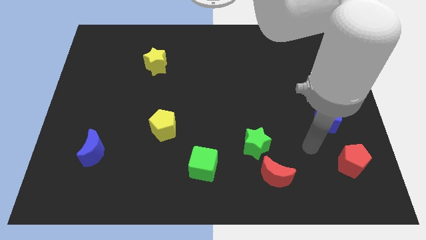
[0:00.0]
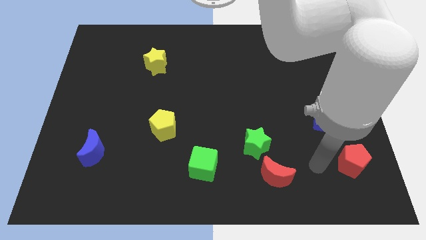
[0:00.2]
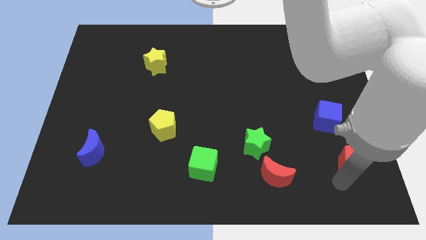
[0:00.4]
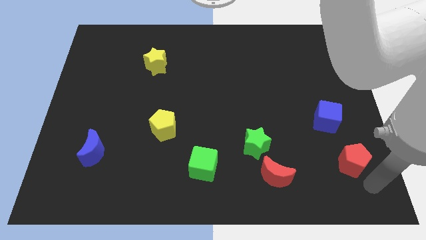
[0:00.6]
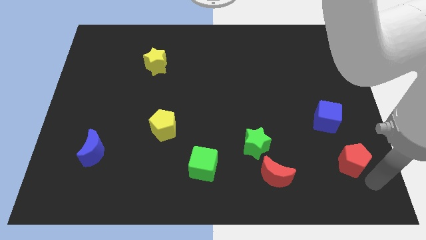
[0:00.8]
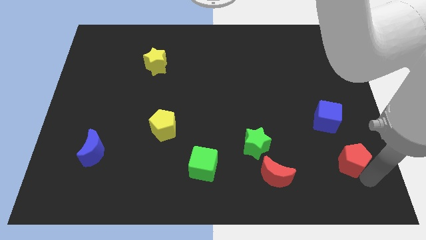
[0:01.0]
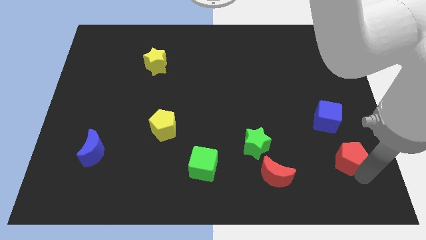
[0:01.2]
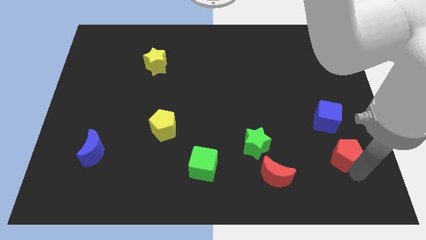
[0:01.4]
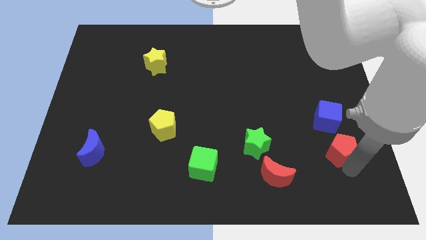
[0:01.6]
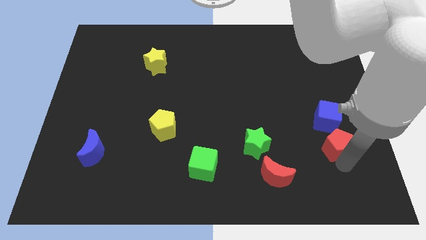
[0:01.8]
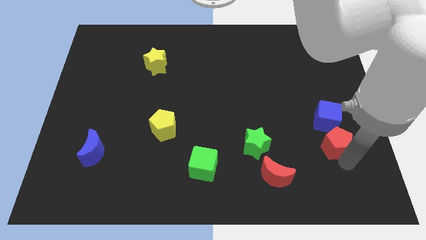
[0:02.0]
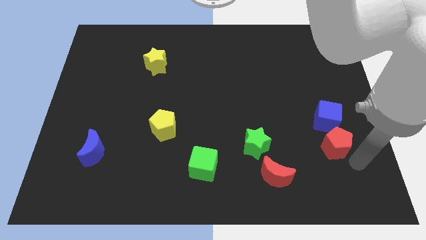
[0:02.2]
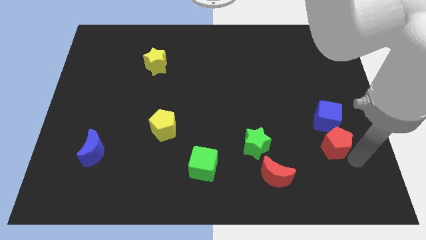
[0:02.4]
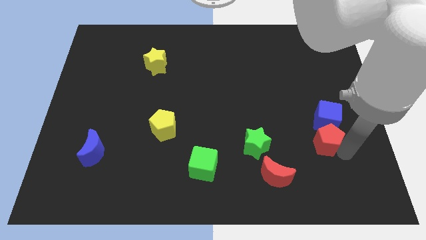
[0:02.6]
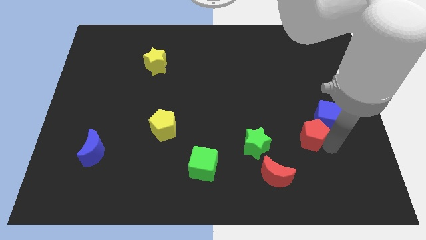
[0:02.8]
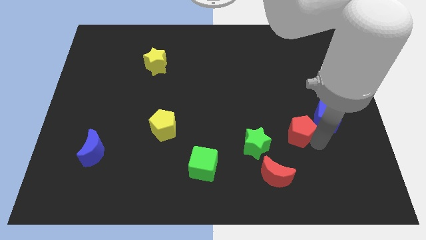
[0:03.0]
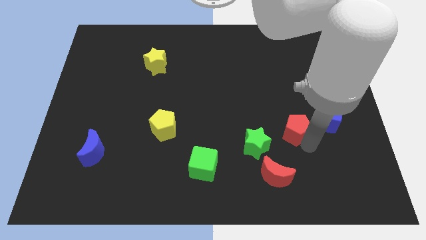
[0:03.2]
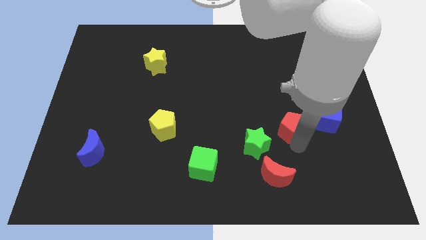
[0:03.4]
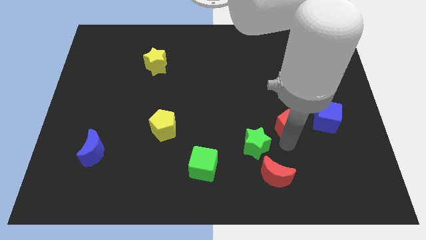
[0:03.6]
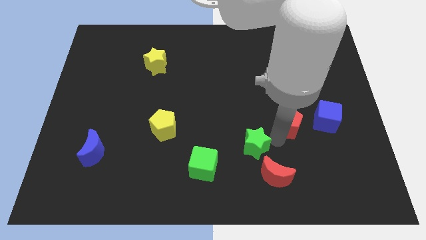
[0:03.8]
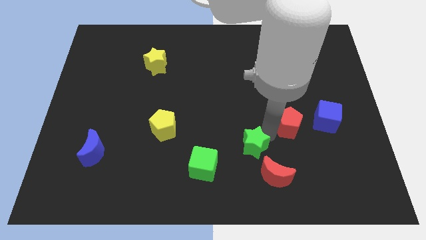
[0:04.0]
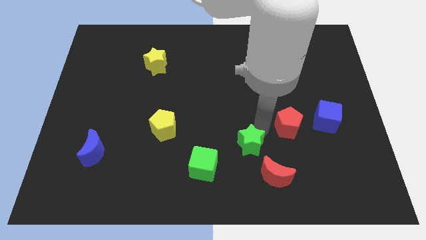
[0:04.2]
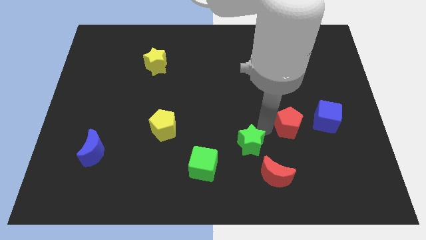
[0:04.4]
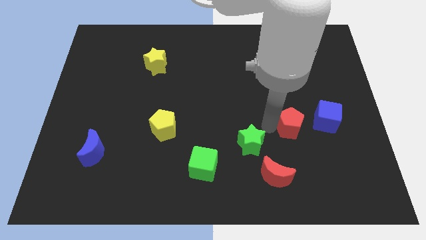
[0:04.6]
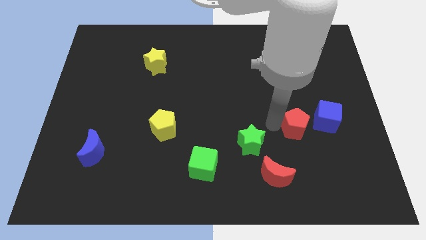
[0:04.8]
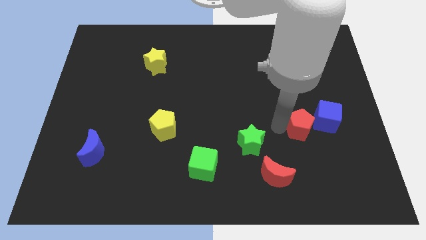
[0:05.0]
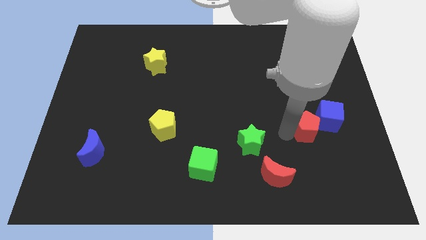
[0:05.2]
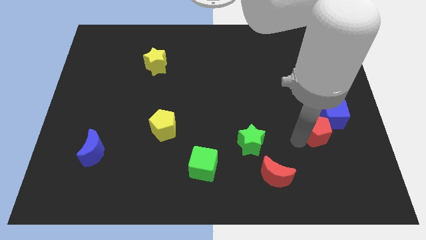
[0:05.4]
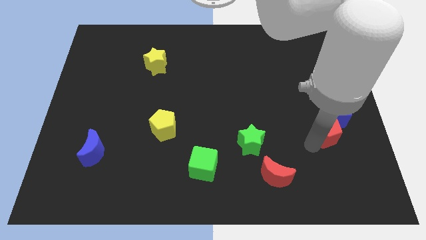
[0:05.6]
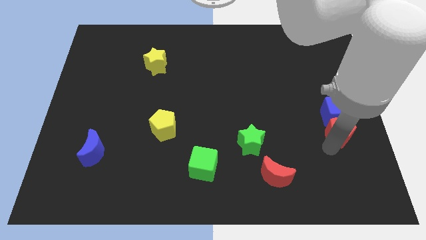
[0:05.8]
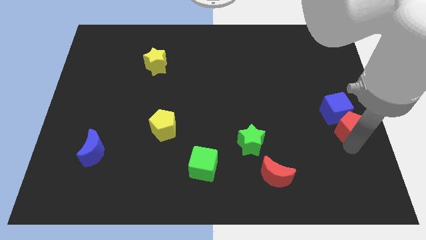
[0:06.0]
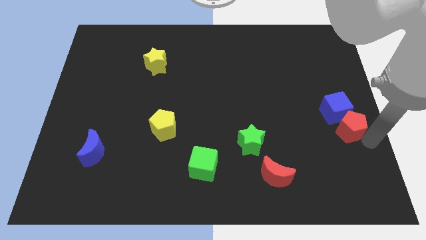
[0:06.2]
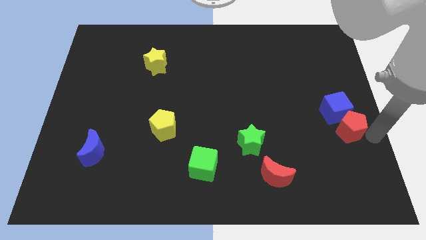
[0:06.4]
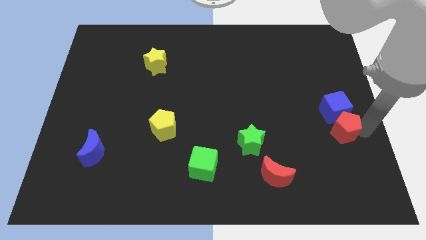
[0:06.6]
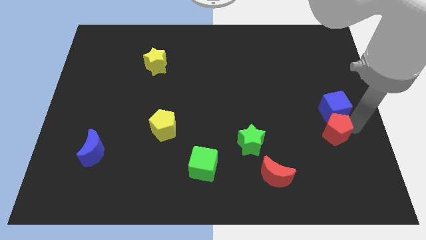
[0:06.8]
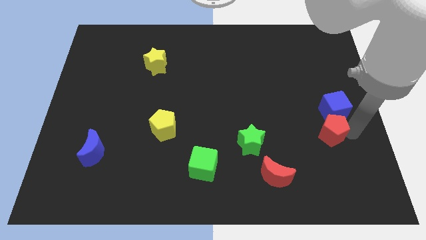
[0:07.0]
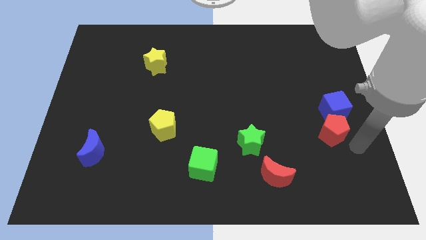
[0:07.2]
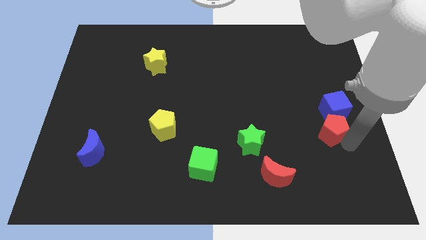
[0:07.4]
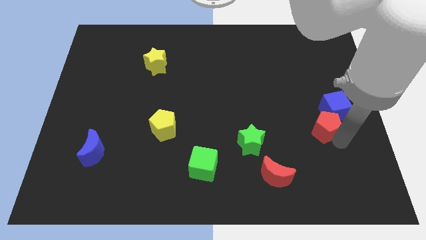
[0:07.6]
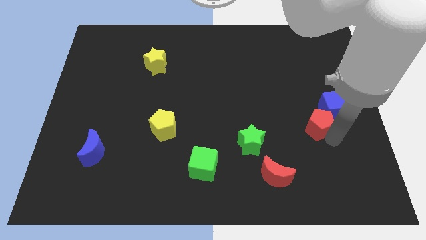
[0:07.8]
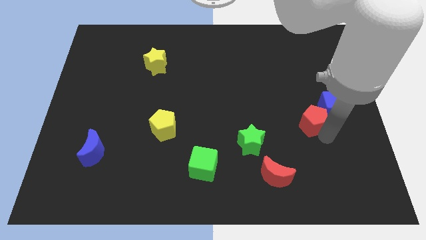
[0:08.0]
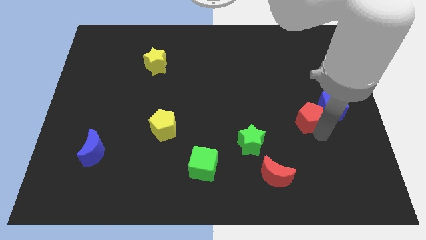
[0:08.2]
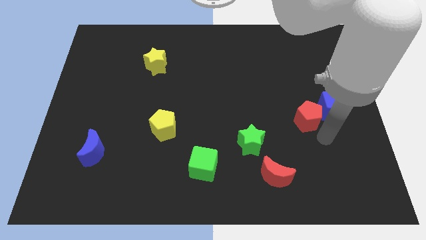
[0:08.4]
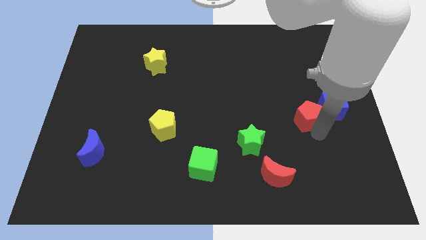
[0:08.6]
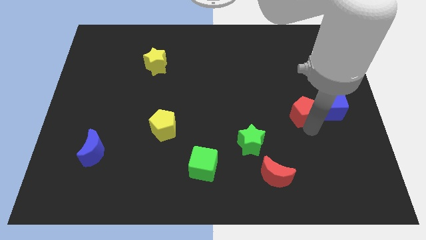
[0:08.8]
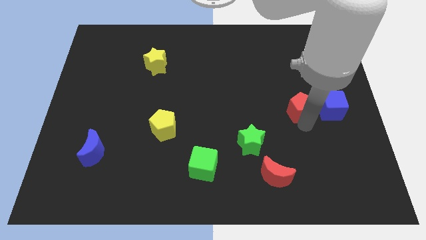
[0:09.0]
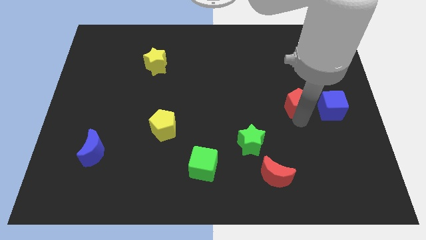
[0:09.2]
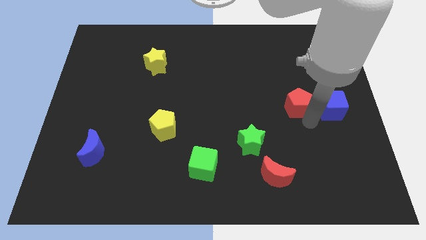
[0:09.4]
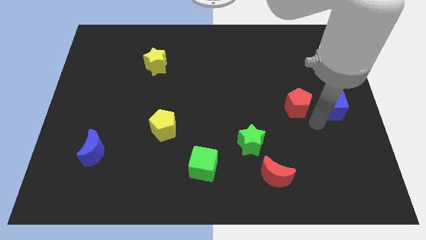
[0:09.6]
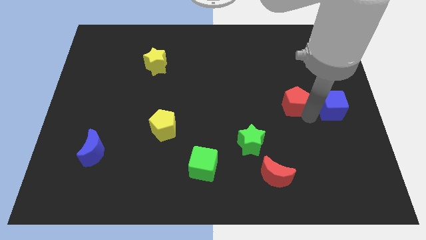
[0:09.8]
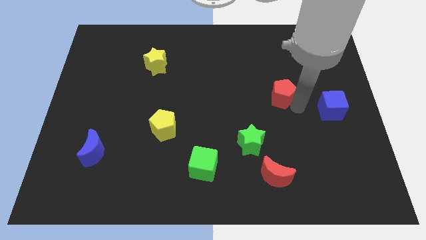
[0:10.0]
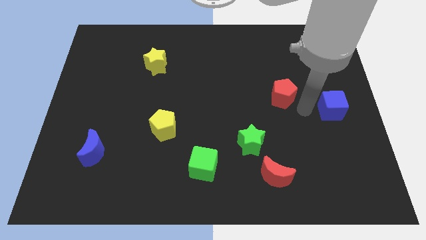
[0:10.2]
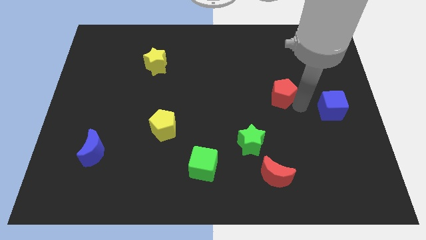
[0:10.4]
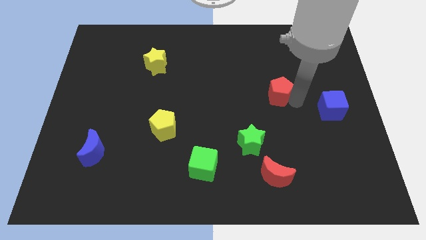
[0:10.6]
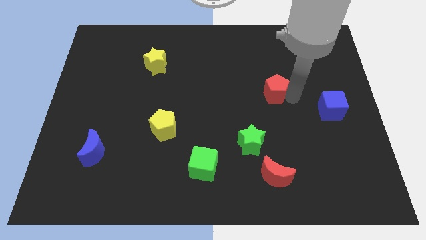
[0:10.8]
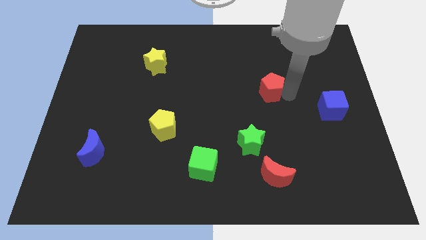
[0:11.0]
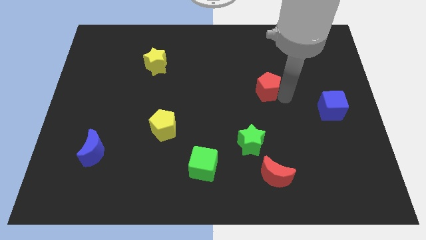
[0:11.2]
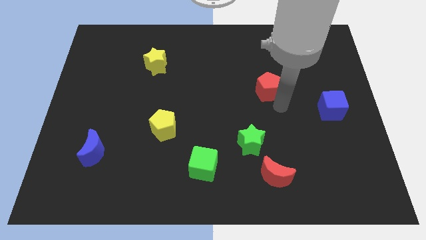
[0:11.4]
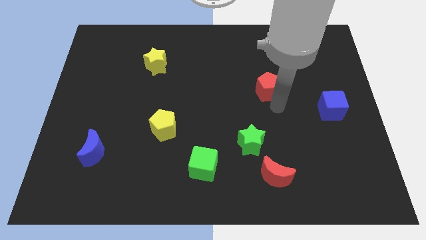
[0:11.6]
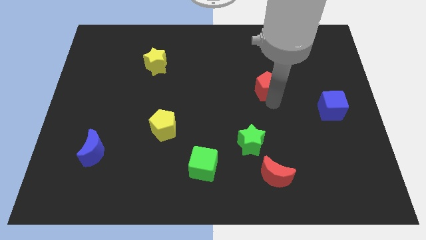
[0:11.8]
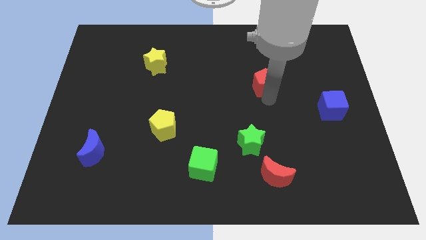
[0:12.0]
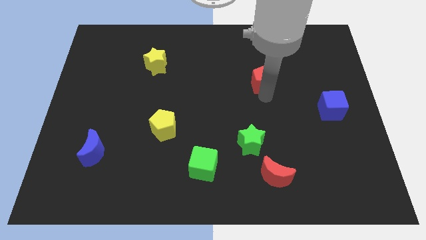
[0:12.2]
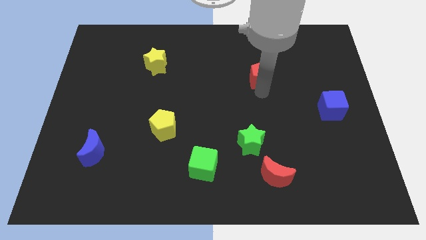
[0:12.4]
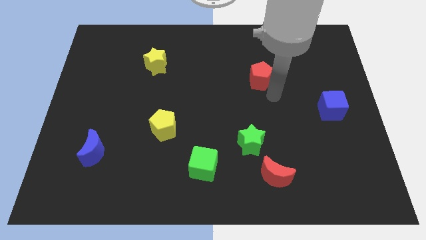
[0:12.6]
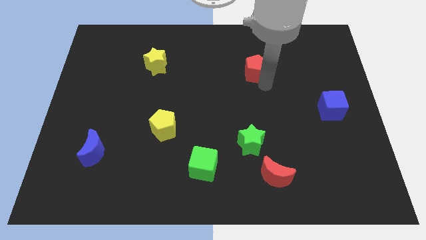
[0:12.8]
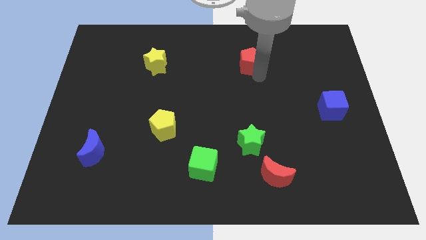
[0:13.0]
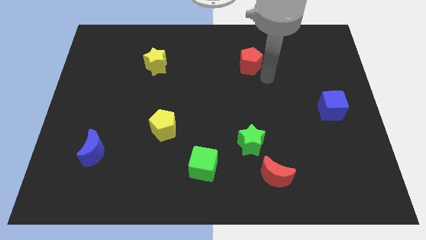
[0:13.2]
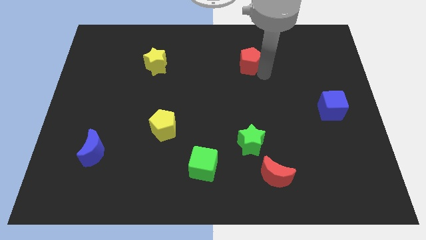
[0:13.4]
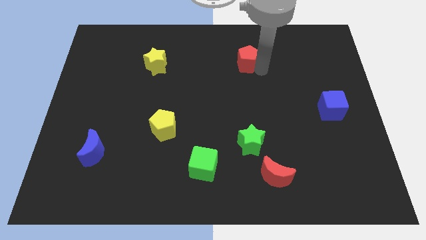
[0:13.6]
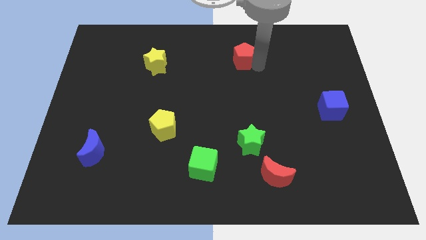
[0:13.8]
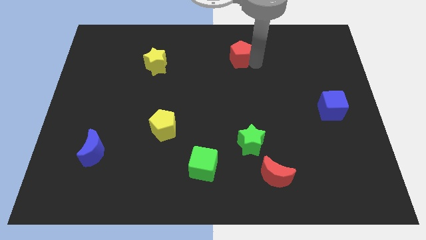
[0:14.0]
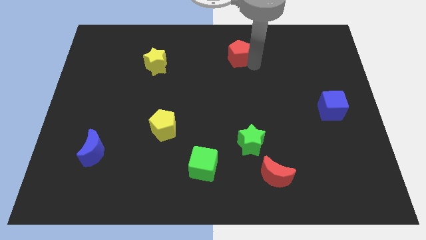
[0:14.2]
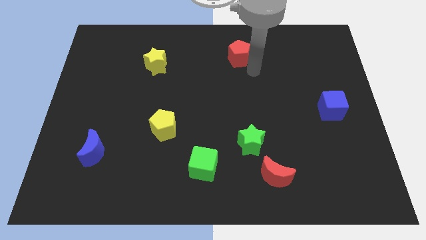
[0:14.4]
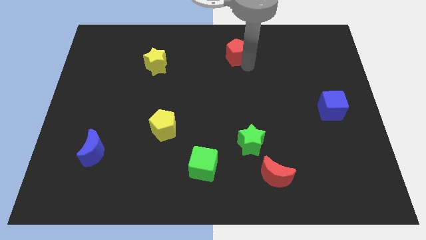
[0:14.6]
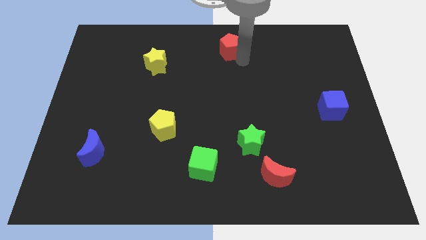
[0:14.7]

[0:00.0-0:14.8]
put the red pentagon to the towards your base

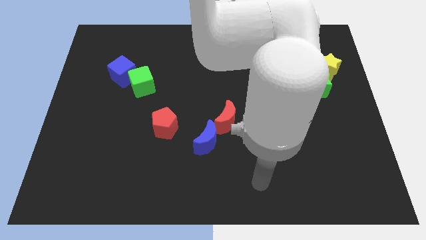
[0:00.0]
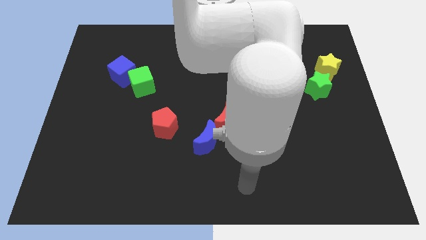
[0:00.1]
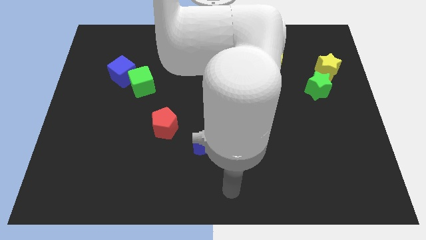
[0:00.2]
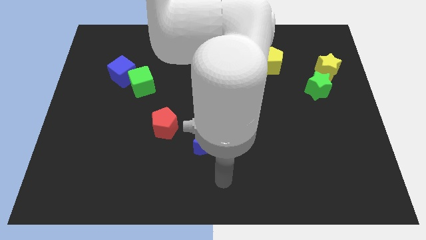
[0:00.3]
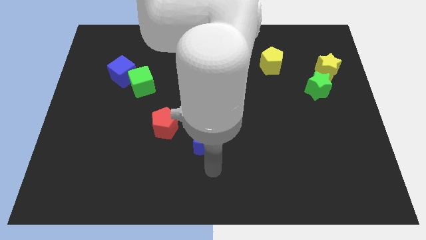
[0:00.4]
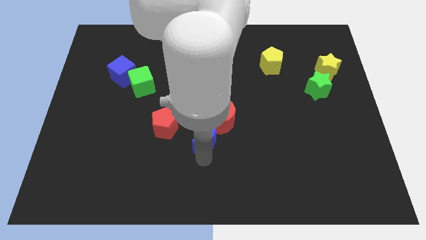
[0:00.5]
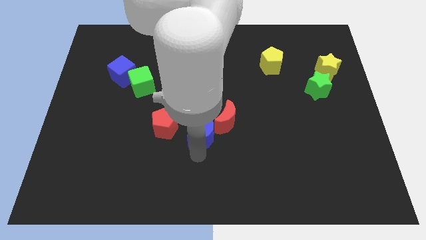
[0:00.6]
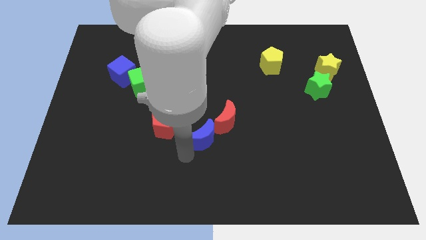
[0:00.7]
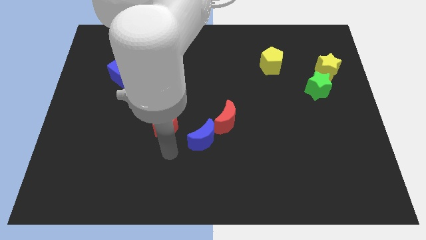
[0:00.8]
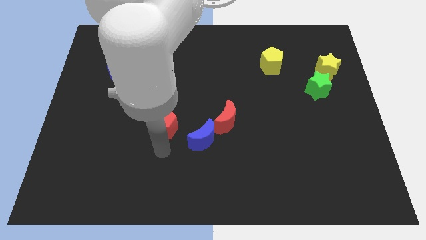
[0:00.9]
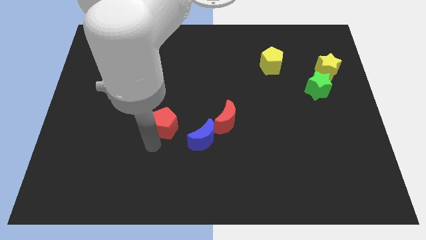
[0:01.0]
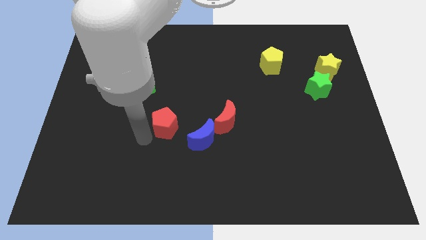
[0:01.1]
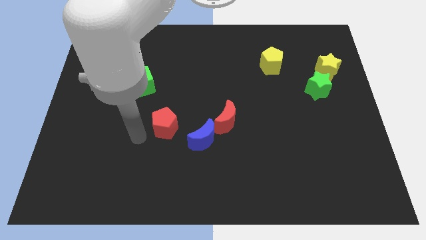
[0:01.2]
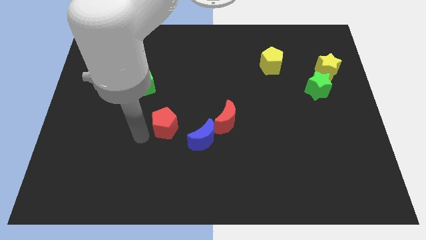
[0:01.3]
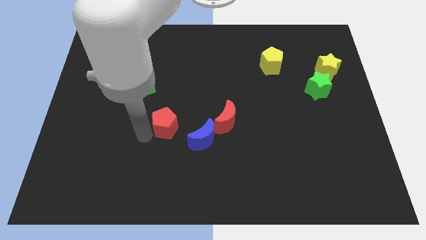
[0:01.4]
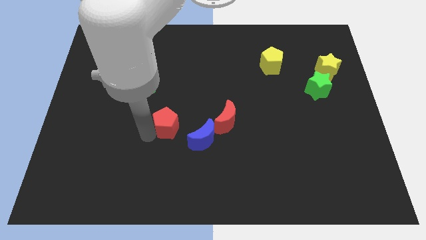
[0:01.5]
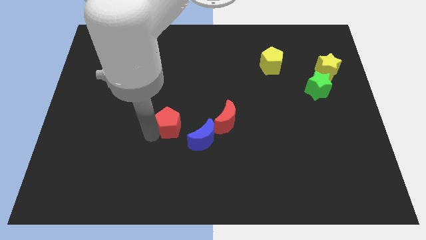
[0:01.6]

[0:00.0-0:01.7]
slide the red pentagon to the center of the board
